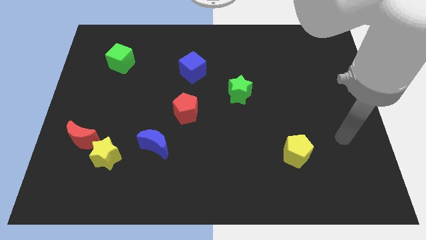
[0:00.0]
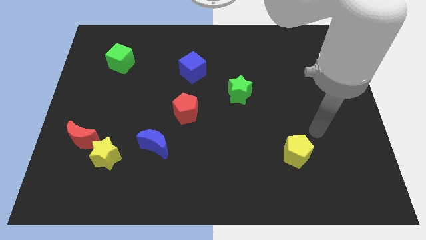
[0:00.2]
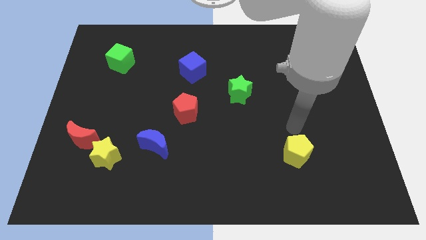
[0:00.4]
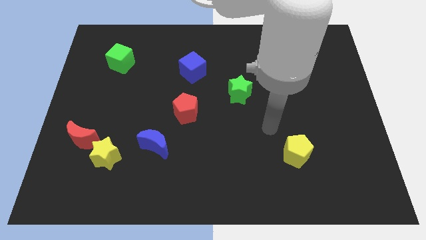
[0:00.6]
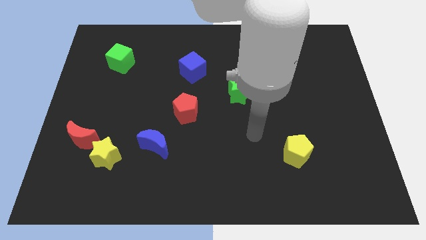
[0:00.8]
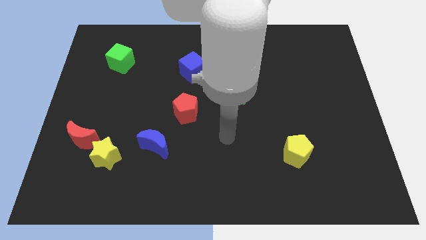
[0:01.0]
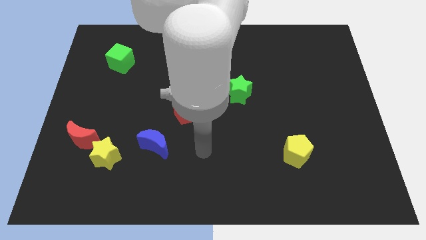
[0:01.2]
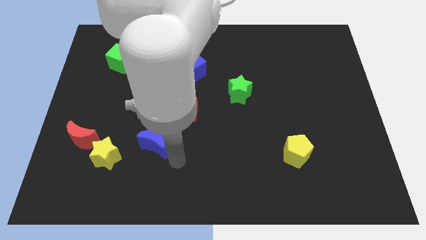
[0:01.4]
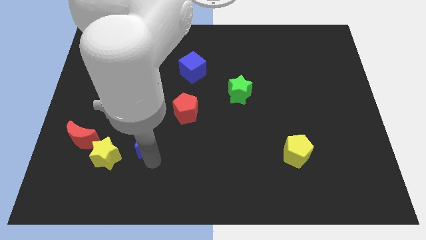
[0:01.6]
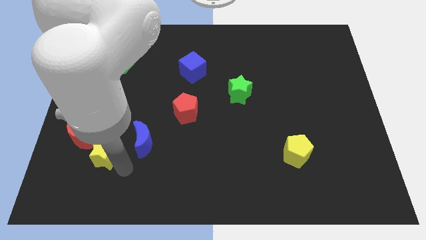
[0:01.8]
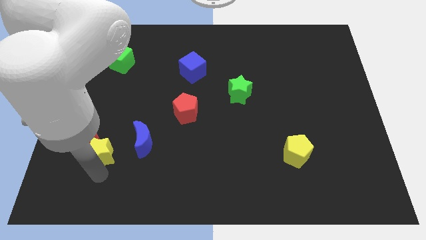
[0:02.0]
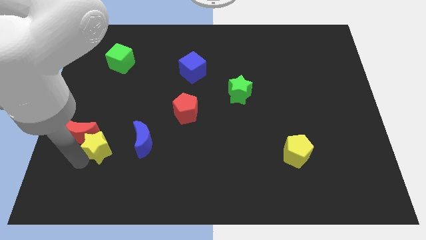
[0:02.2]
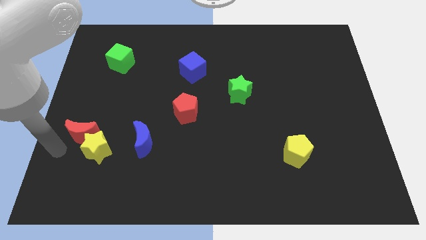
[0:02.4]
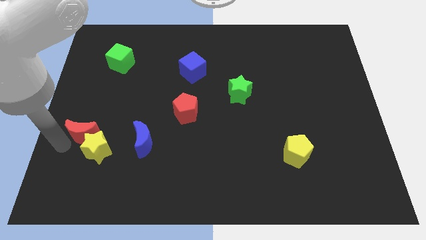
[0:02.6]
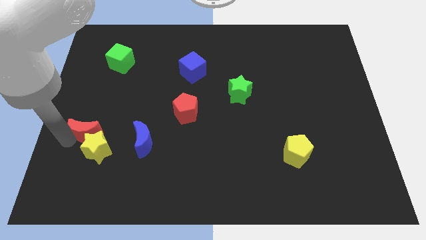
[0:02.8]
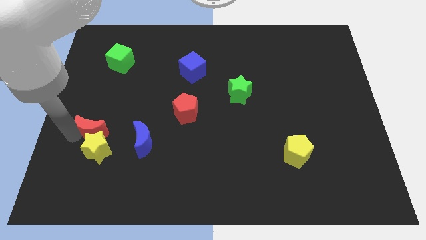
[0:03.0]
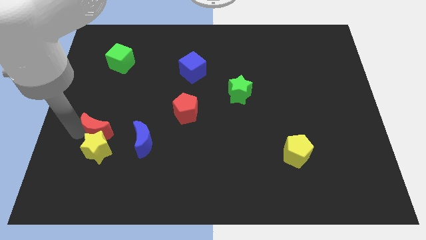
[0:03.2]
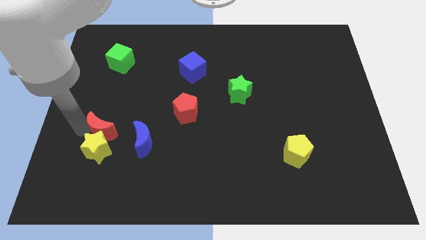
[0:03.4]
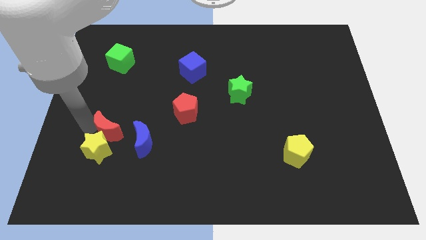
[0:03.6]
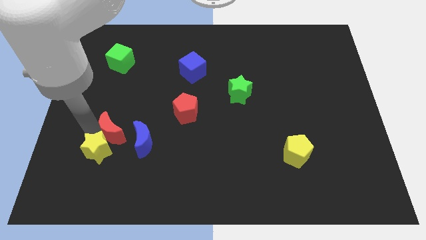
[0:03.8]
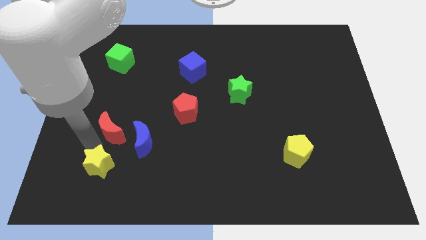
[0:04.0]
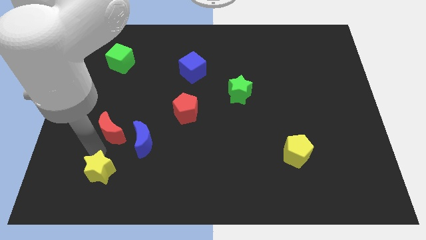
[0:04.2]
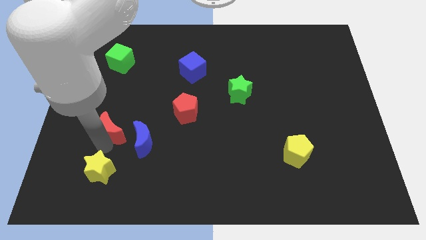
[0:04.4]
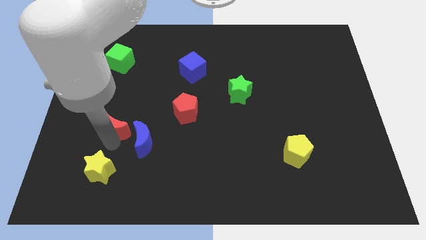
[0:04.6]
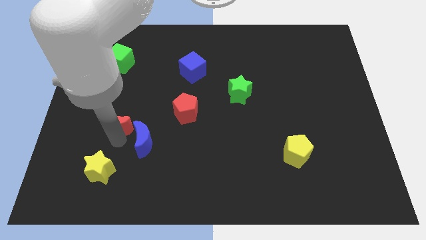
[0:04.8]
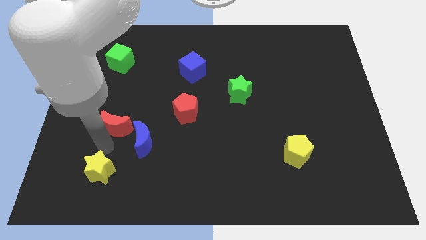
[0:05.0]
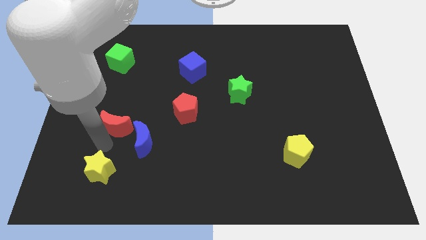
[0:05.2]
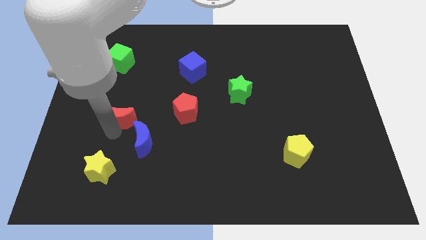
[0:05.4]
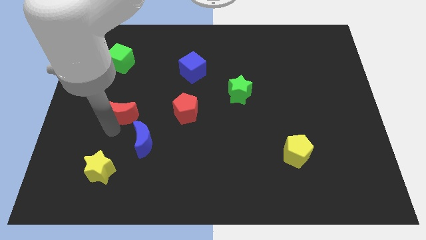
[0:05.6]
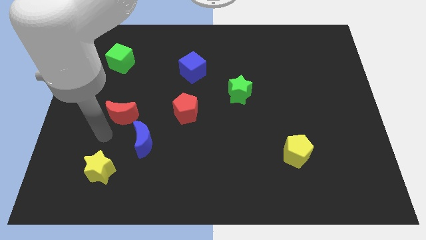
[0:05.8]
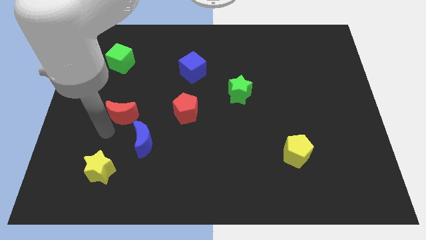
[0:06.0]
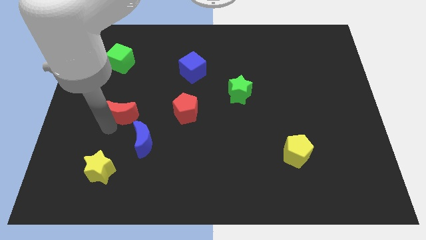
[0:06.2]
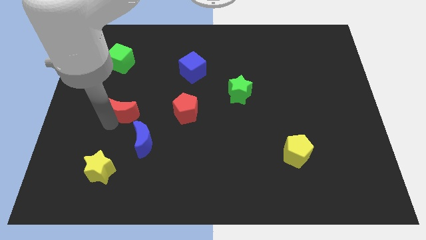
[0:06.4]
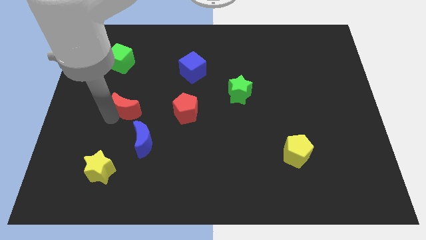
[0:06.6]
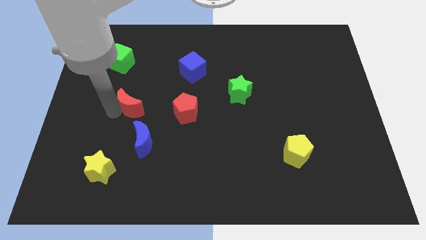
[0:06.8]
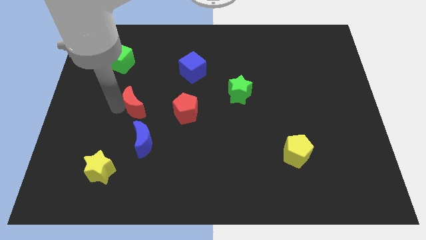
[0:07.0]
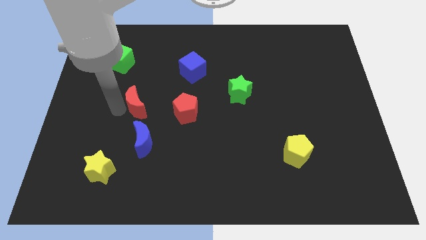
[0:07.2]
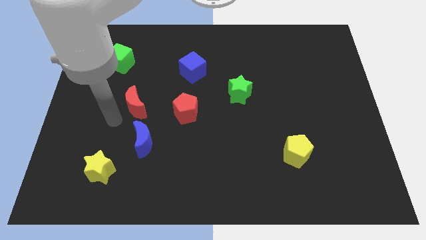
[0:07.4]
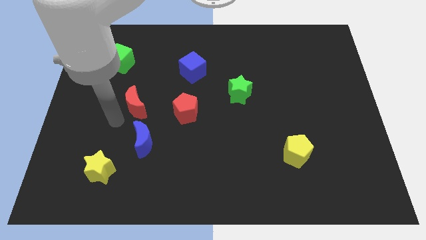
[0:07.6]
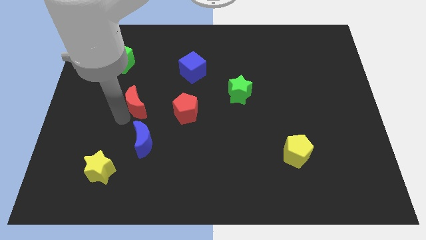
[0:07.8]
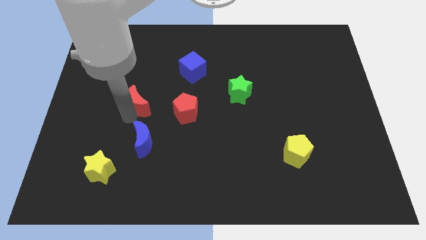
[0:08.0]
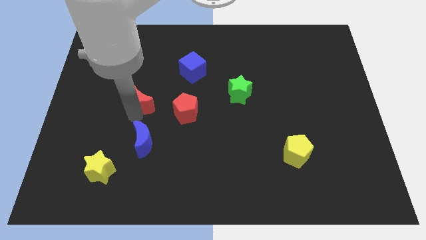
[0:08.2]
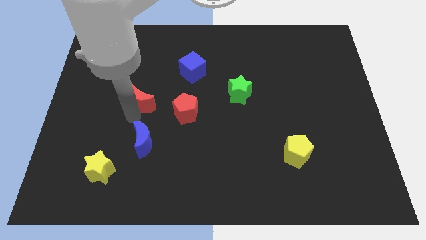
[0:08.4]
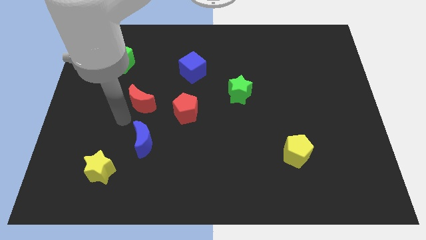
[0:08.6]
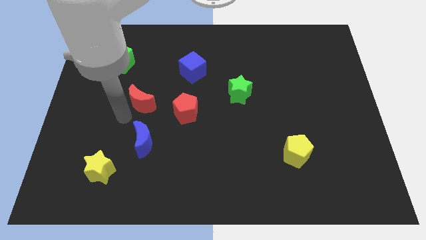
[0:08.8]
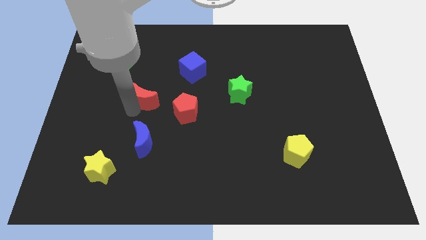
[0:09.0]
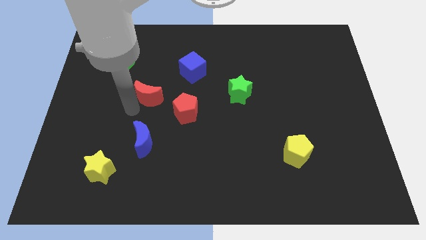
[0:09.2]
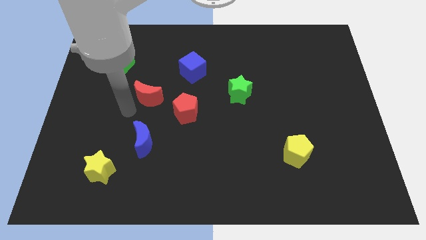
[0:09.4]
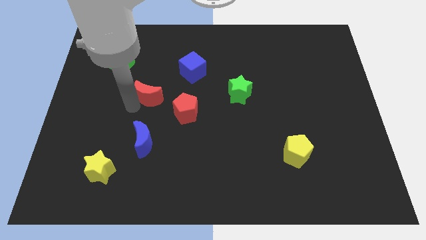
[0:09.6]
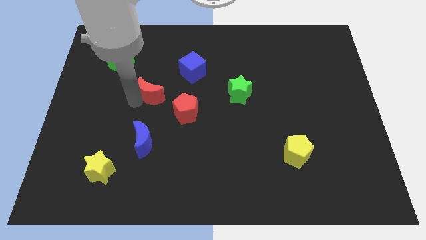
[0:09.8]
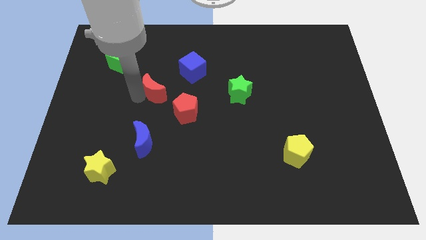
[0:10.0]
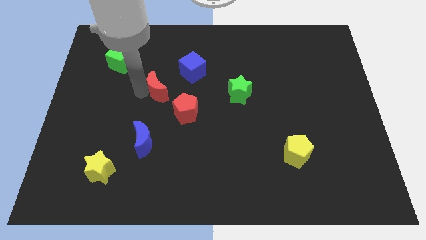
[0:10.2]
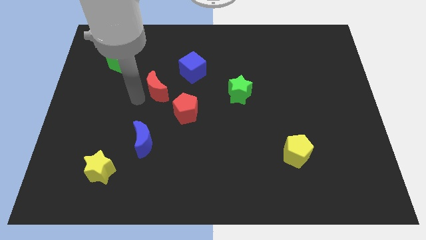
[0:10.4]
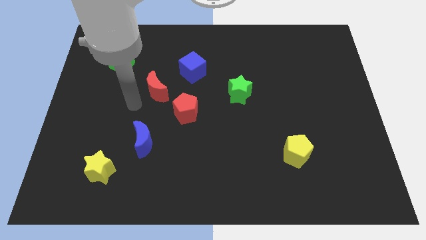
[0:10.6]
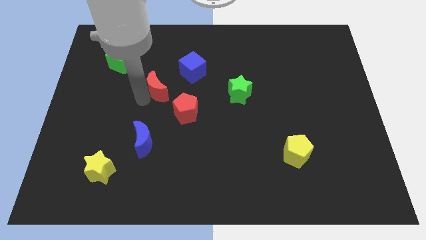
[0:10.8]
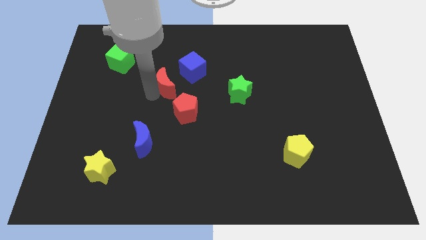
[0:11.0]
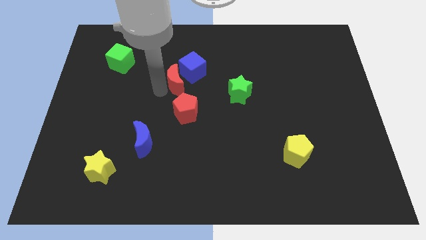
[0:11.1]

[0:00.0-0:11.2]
put the red moon to the blue cube

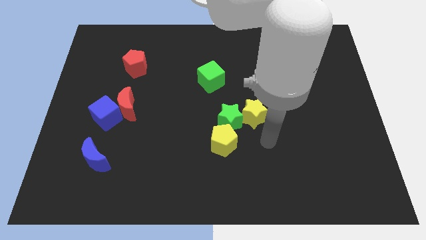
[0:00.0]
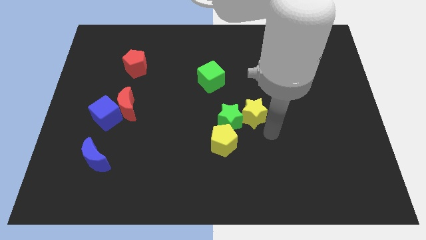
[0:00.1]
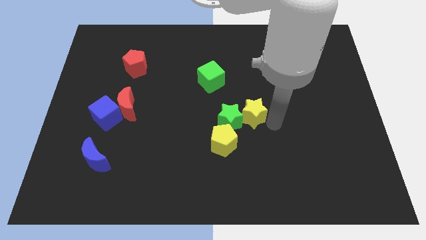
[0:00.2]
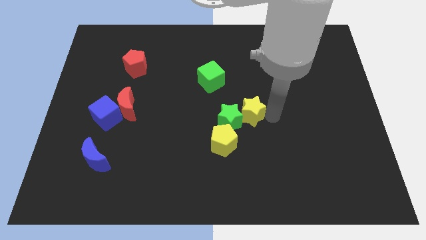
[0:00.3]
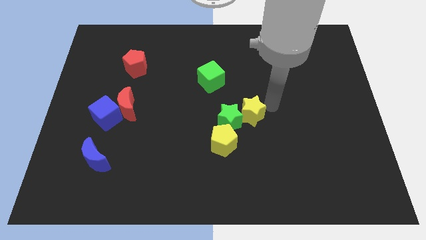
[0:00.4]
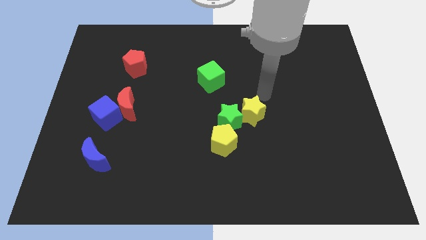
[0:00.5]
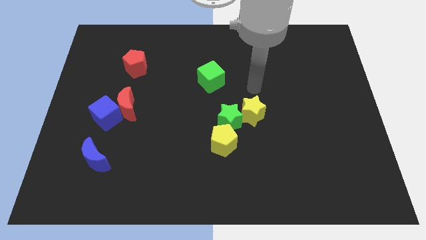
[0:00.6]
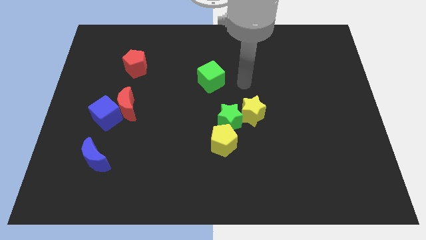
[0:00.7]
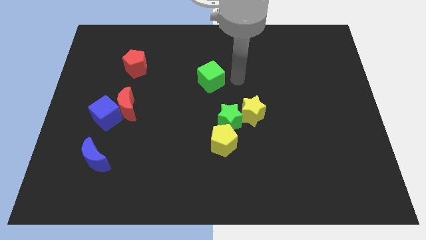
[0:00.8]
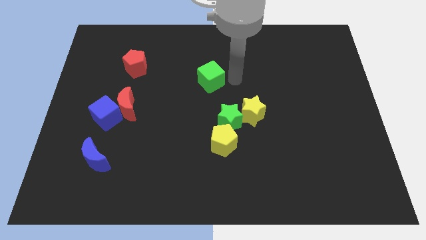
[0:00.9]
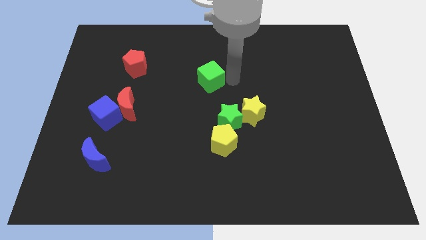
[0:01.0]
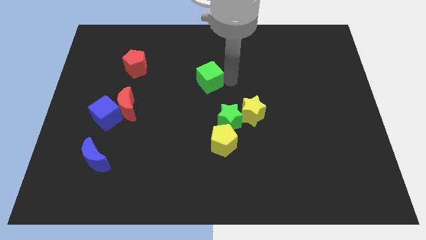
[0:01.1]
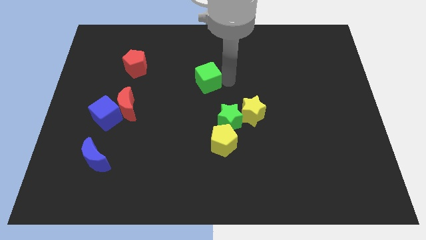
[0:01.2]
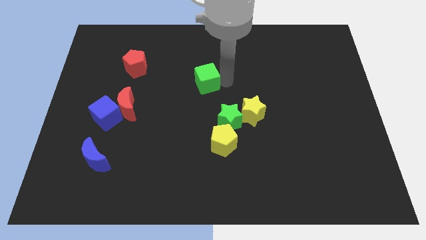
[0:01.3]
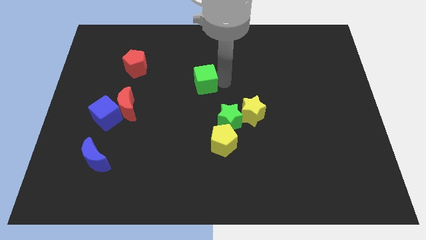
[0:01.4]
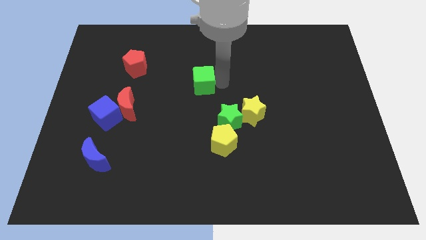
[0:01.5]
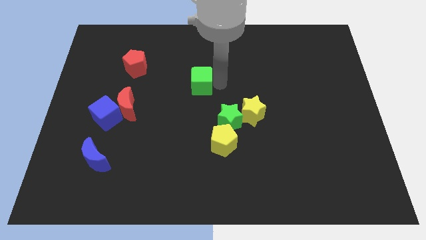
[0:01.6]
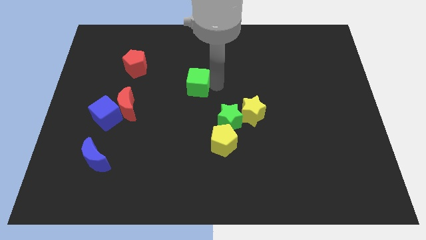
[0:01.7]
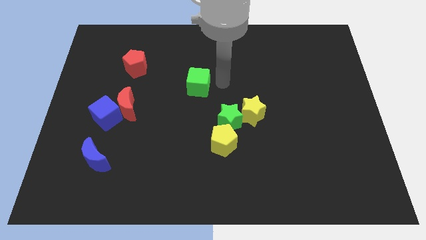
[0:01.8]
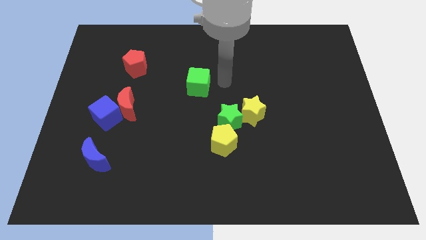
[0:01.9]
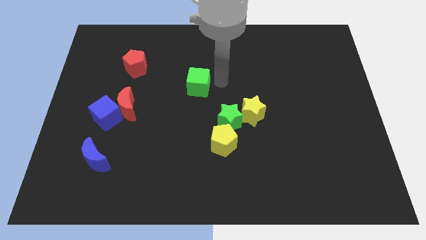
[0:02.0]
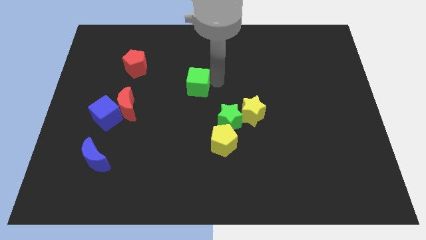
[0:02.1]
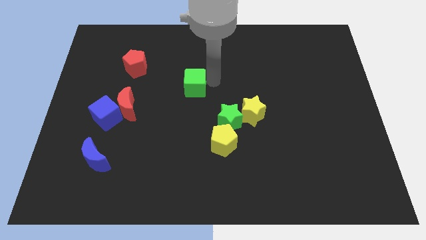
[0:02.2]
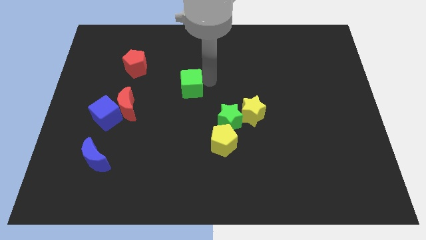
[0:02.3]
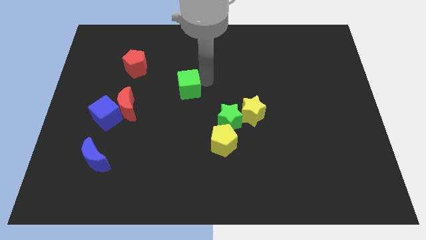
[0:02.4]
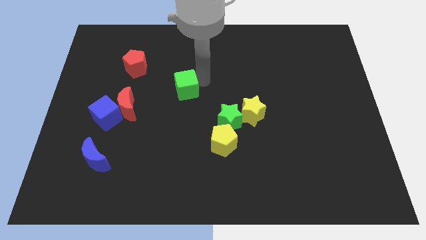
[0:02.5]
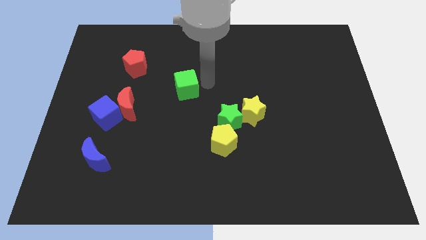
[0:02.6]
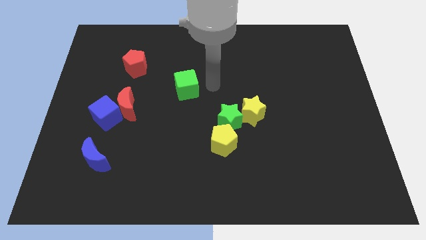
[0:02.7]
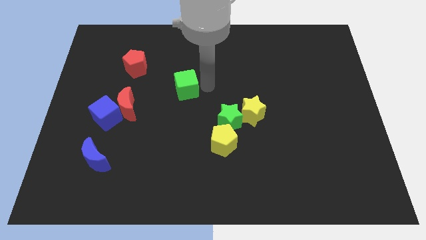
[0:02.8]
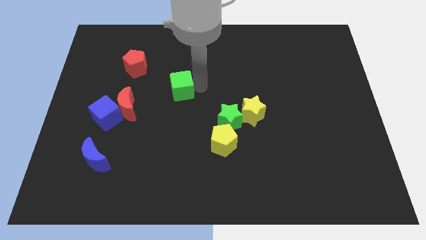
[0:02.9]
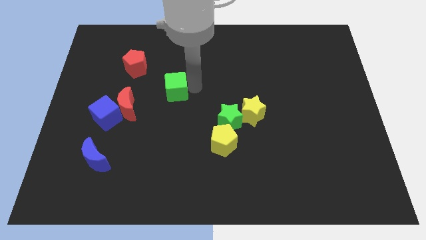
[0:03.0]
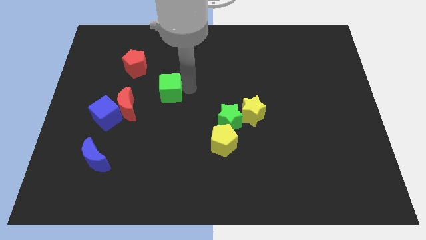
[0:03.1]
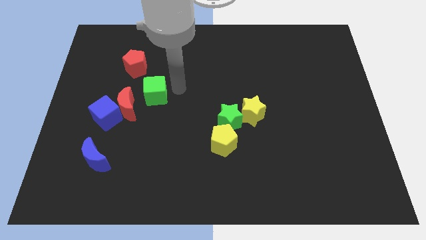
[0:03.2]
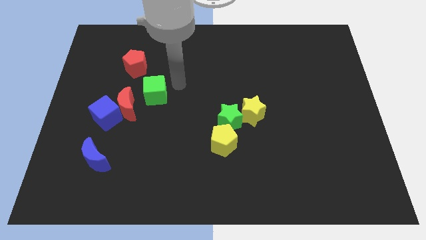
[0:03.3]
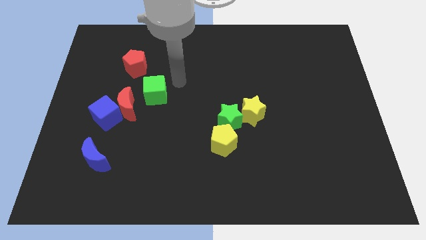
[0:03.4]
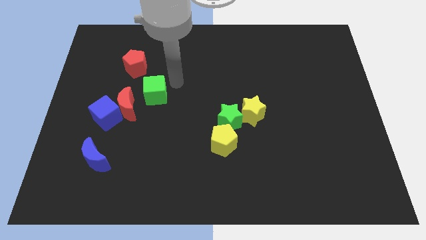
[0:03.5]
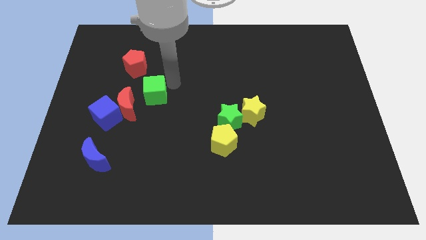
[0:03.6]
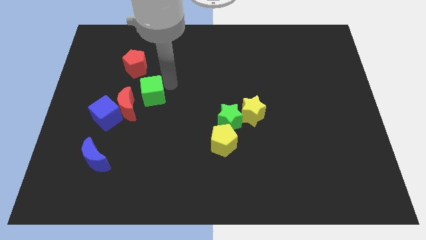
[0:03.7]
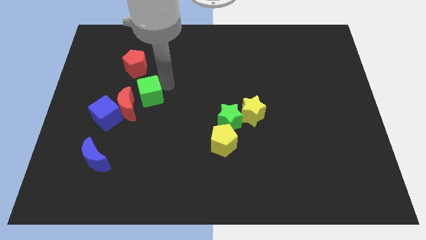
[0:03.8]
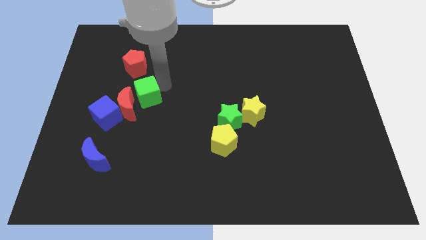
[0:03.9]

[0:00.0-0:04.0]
push the green cube close to the red moon
